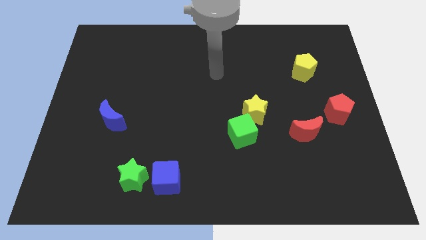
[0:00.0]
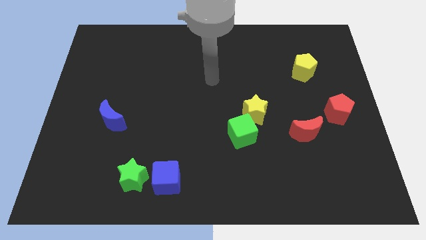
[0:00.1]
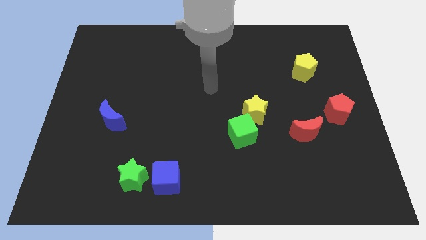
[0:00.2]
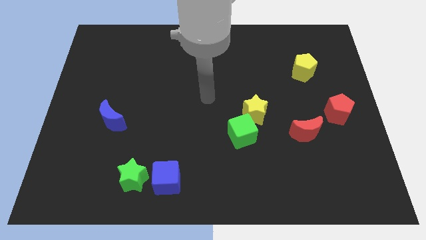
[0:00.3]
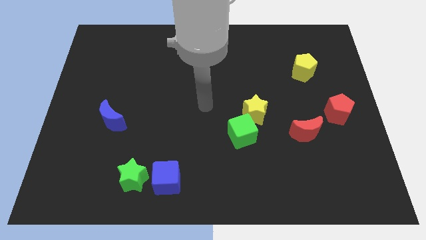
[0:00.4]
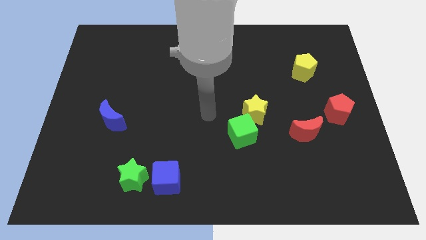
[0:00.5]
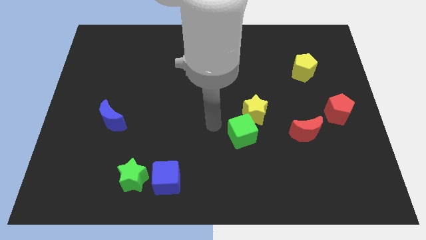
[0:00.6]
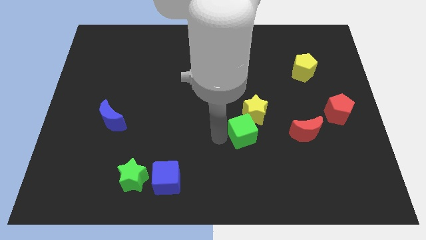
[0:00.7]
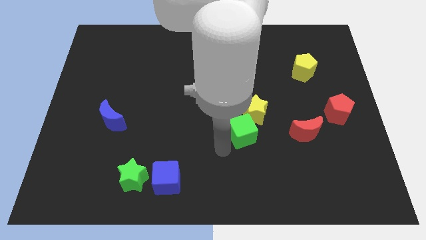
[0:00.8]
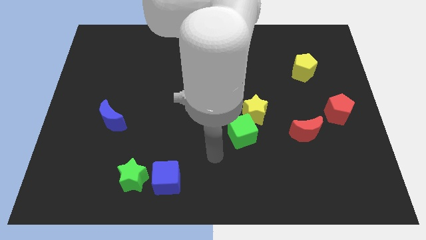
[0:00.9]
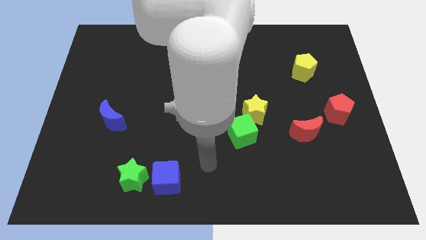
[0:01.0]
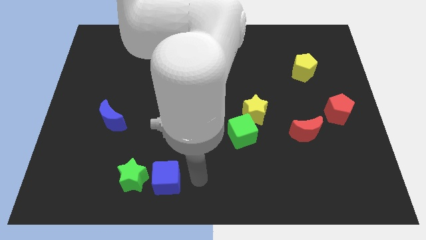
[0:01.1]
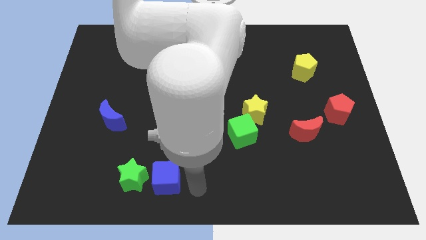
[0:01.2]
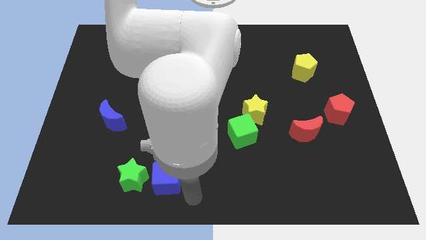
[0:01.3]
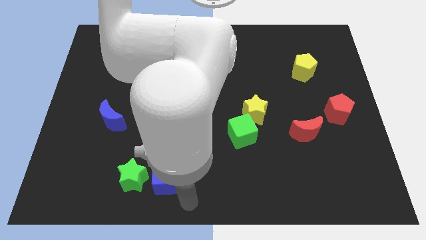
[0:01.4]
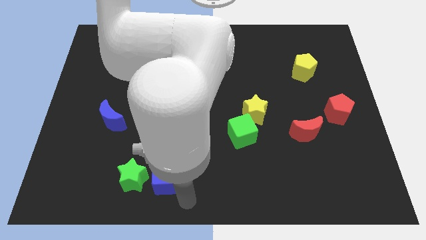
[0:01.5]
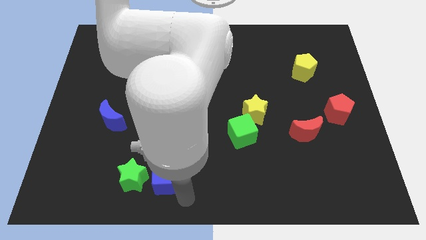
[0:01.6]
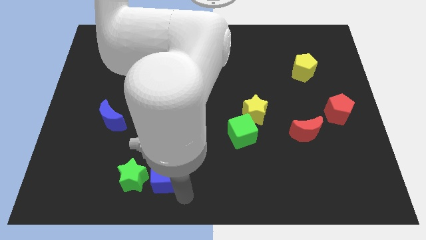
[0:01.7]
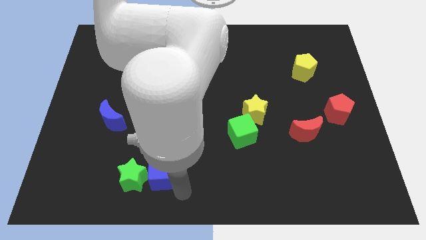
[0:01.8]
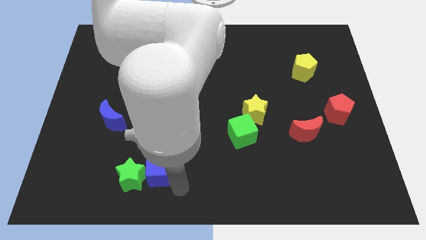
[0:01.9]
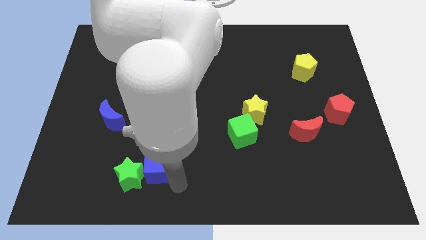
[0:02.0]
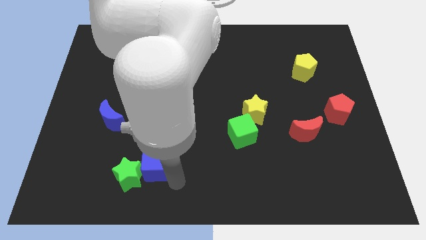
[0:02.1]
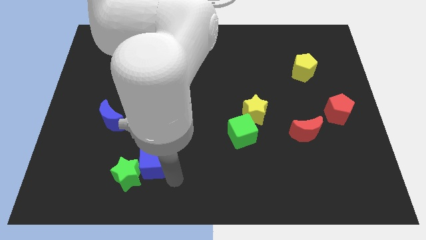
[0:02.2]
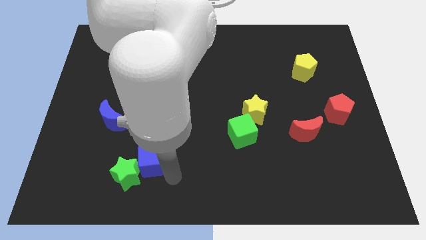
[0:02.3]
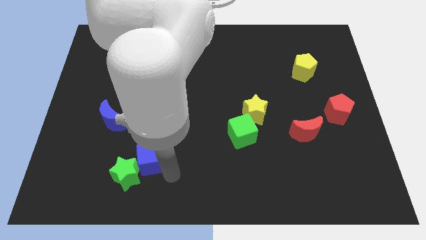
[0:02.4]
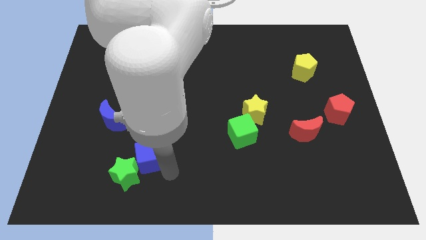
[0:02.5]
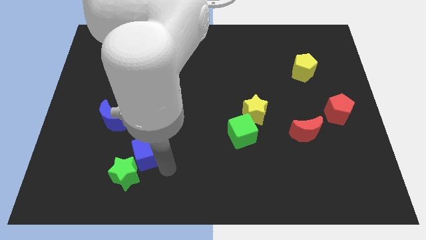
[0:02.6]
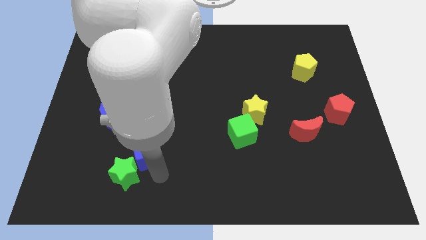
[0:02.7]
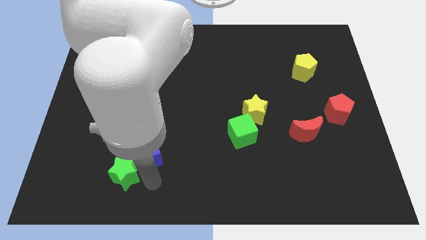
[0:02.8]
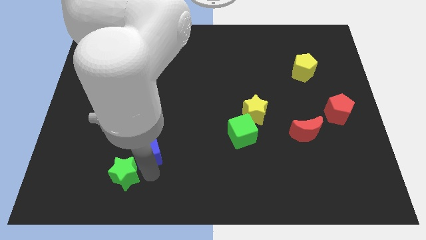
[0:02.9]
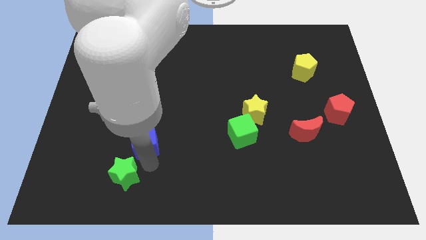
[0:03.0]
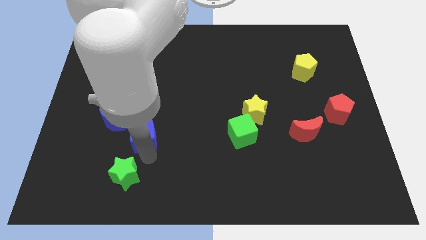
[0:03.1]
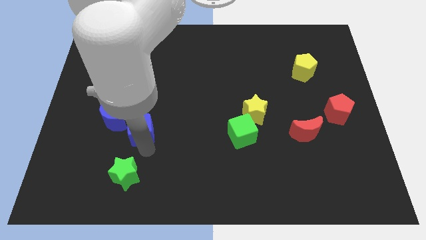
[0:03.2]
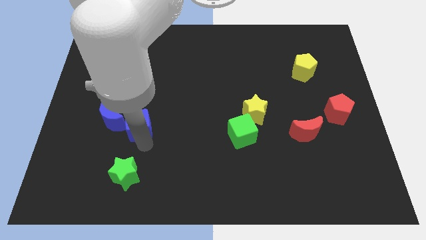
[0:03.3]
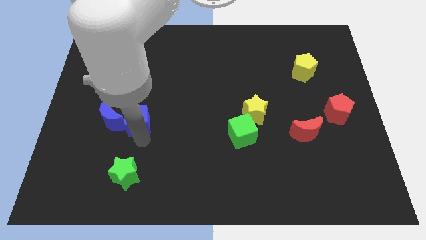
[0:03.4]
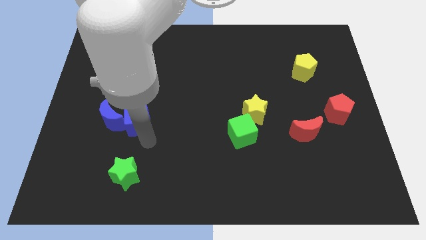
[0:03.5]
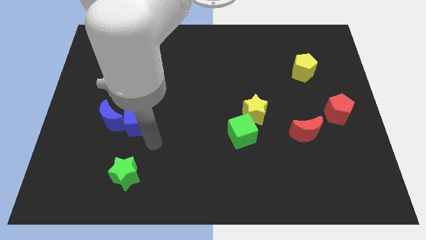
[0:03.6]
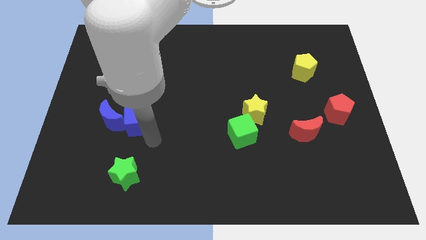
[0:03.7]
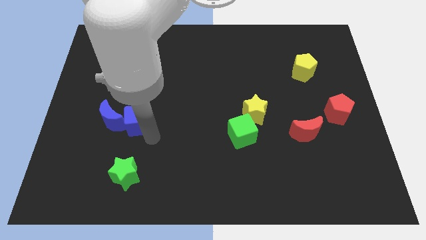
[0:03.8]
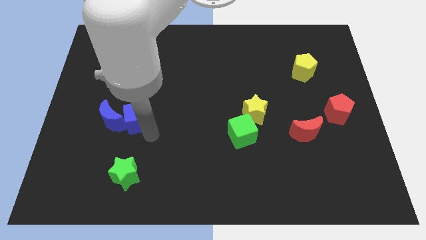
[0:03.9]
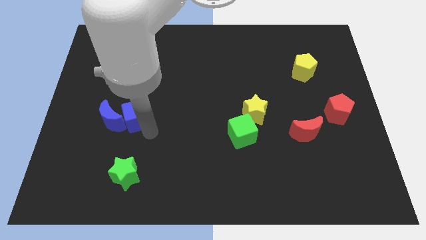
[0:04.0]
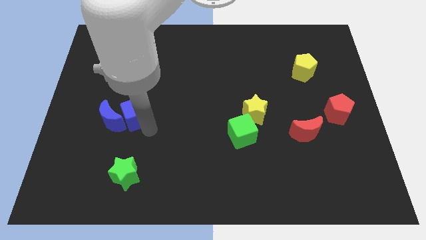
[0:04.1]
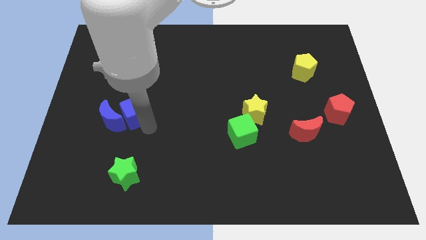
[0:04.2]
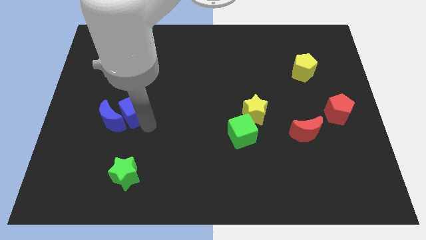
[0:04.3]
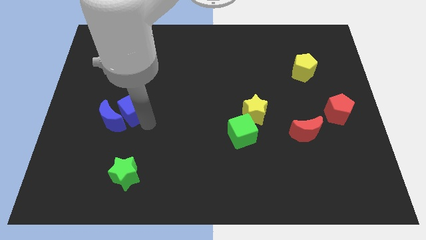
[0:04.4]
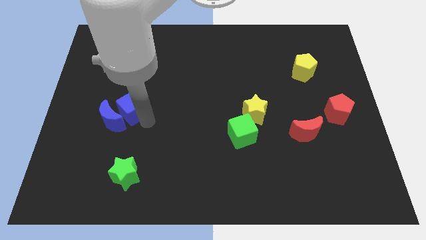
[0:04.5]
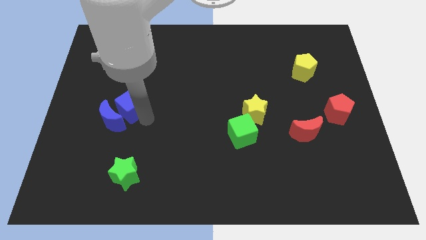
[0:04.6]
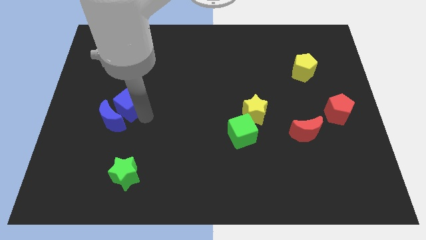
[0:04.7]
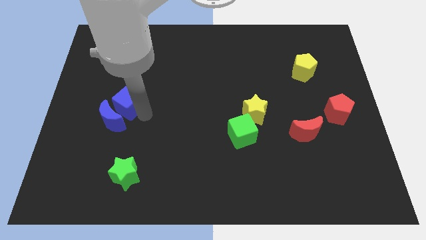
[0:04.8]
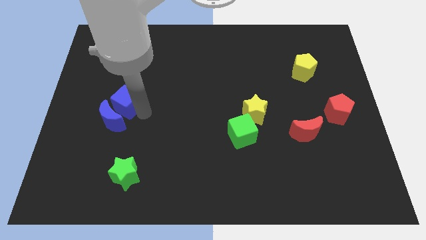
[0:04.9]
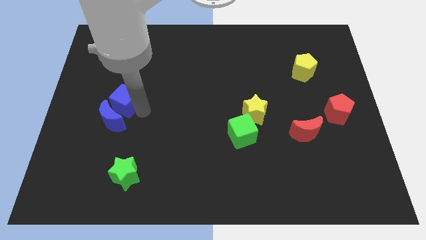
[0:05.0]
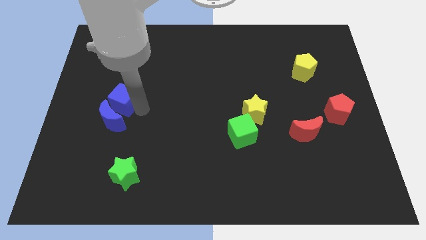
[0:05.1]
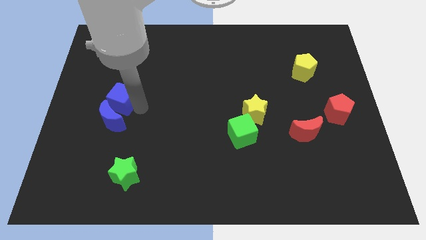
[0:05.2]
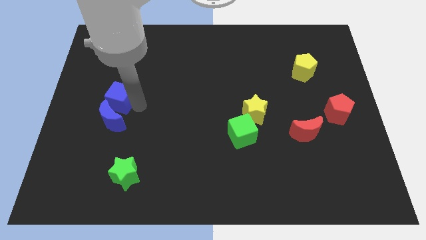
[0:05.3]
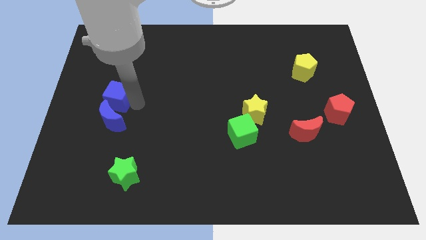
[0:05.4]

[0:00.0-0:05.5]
move the blue cube to the top left of the blue moon

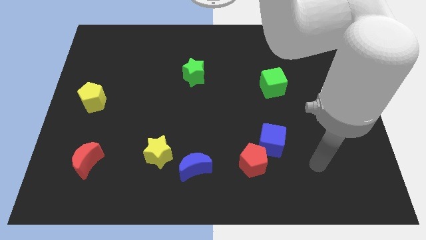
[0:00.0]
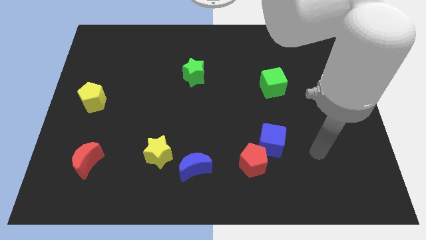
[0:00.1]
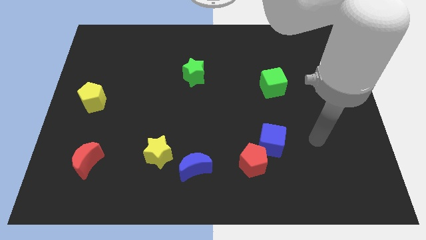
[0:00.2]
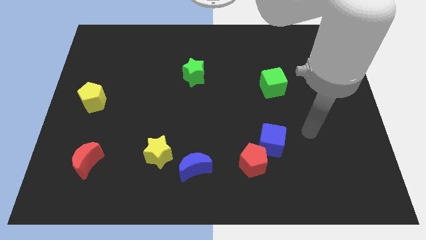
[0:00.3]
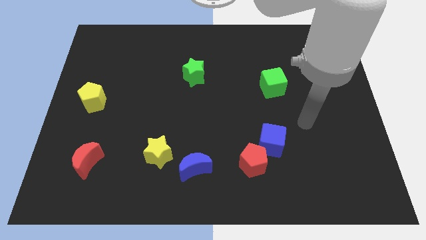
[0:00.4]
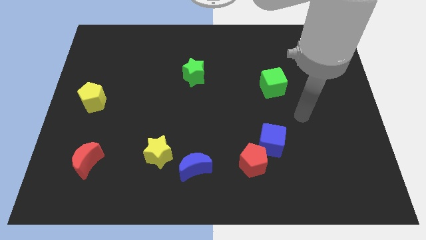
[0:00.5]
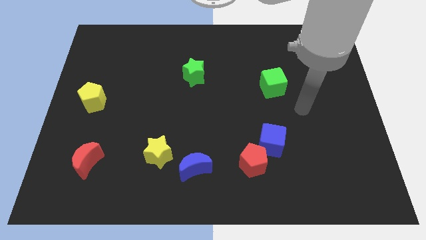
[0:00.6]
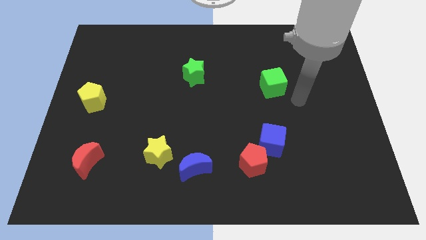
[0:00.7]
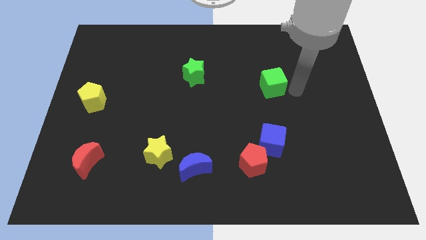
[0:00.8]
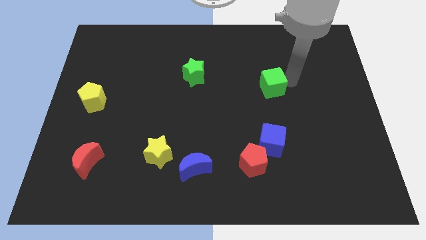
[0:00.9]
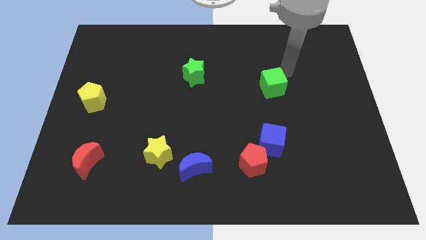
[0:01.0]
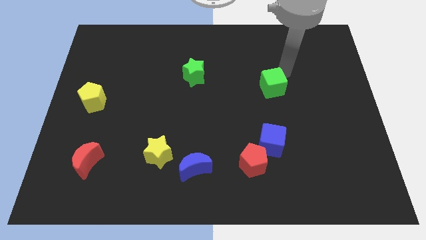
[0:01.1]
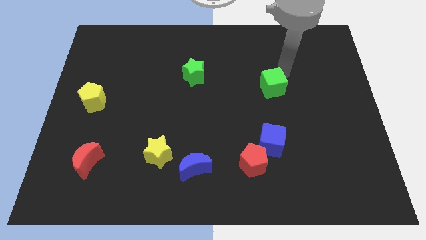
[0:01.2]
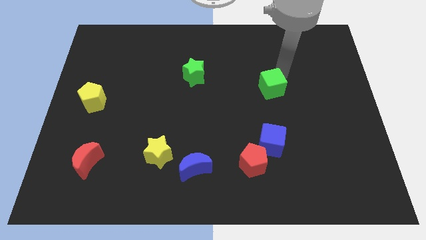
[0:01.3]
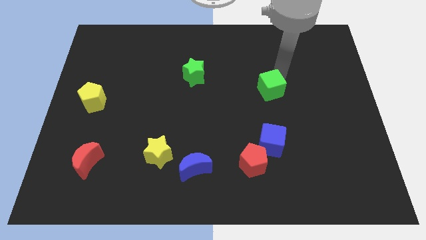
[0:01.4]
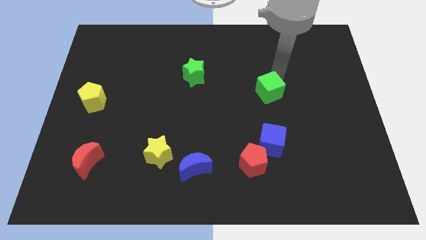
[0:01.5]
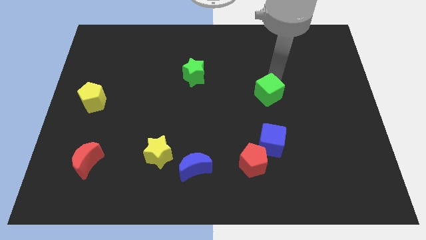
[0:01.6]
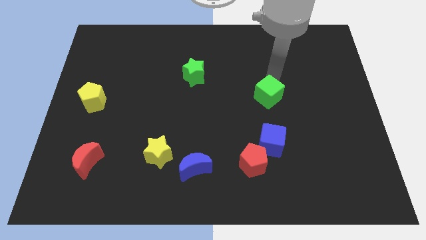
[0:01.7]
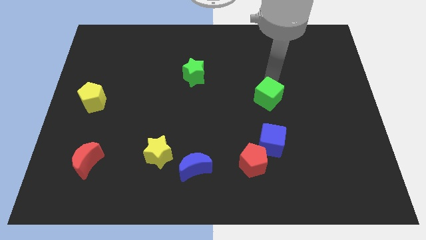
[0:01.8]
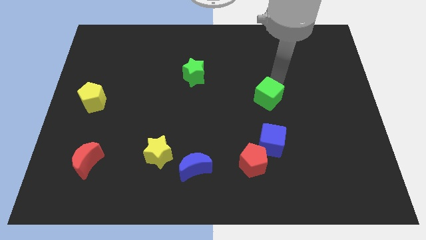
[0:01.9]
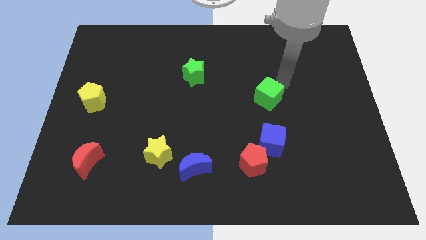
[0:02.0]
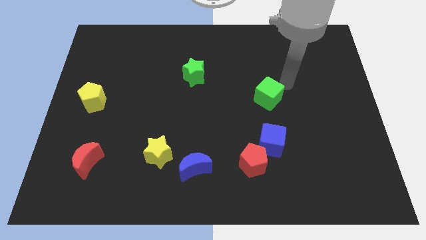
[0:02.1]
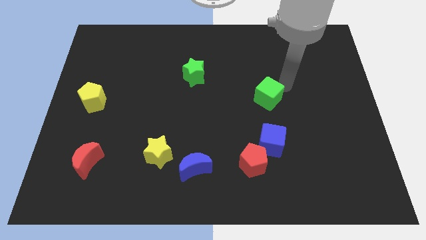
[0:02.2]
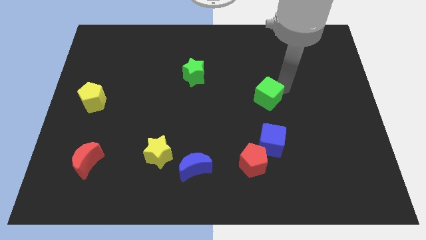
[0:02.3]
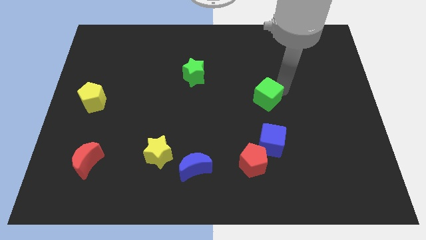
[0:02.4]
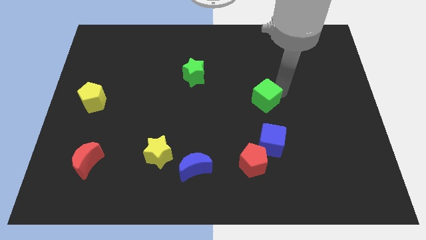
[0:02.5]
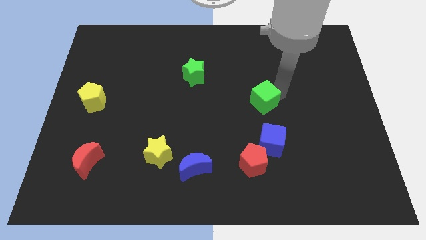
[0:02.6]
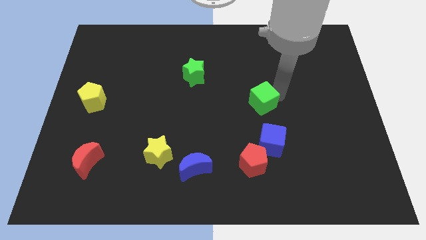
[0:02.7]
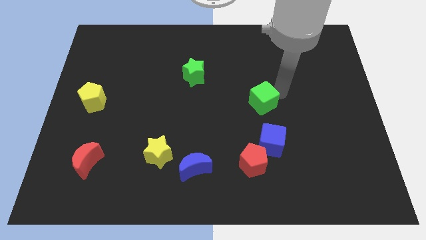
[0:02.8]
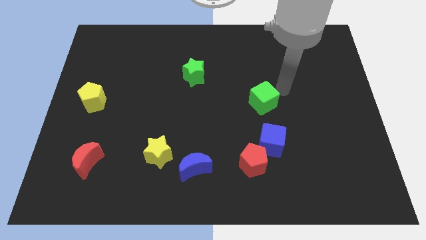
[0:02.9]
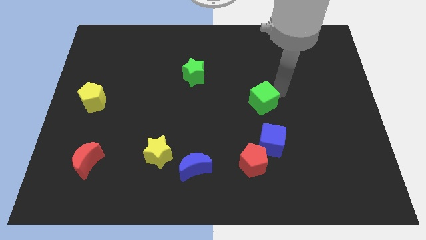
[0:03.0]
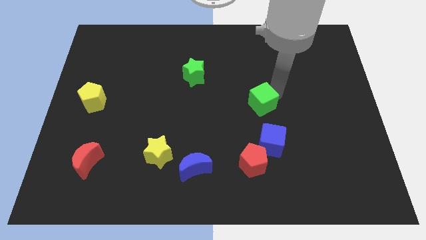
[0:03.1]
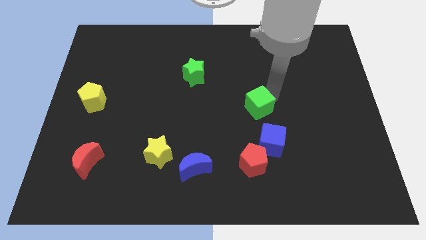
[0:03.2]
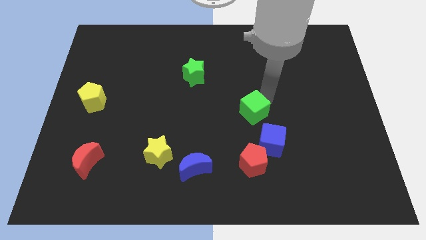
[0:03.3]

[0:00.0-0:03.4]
slide the green cube diagonally up and to the left of the blue cube
